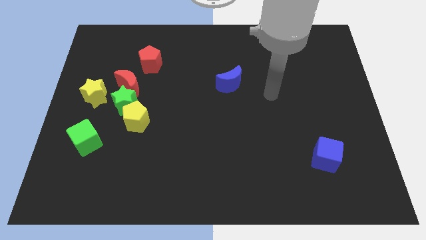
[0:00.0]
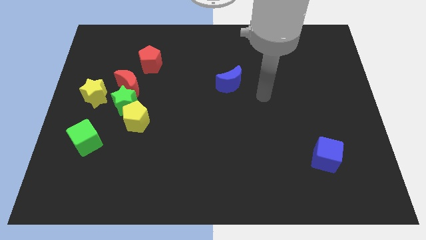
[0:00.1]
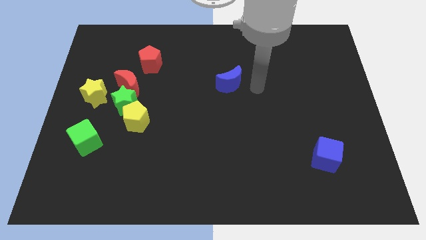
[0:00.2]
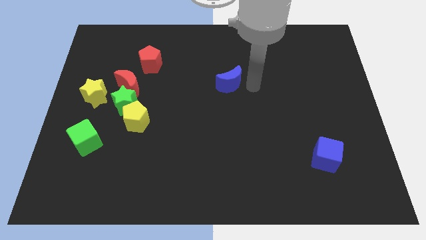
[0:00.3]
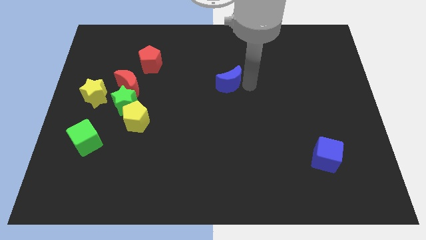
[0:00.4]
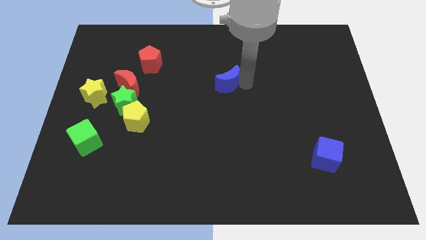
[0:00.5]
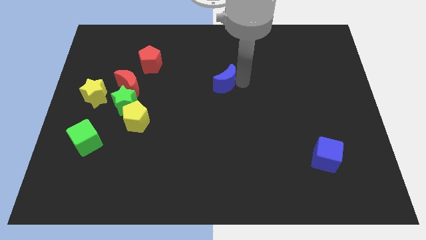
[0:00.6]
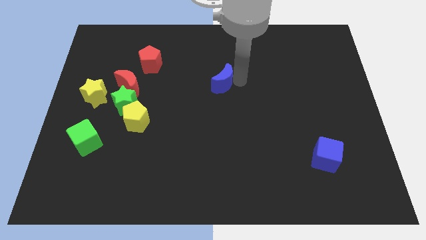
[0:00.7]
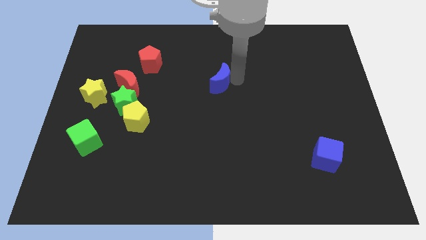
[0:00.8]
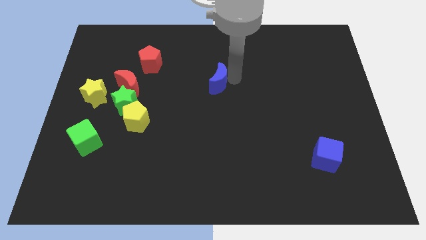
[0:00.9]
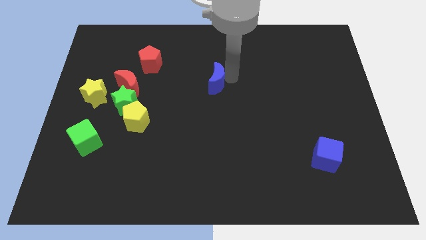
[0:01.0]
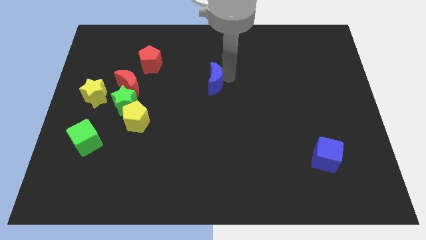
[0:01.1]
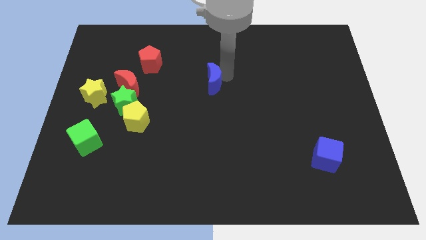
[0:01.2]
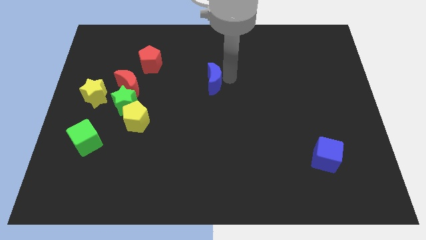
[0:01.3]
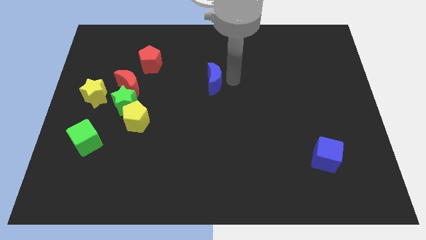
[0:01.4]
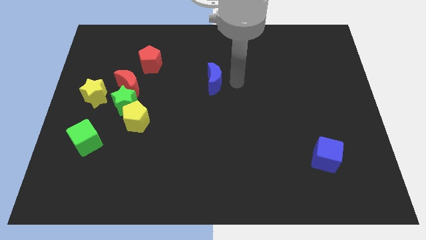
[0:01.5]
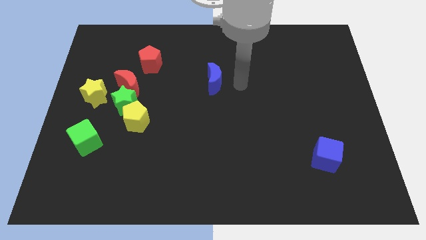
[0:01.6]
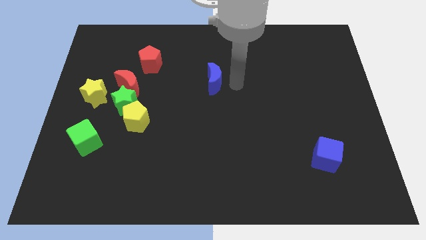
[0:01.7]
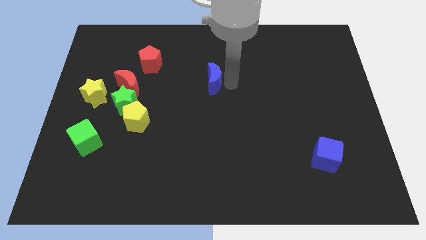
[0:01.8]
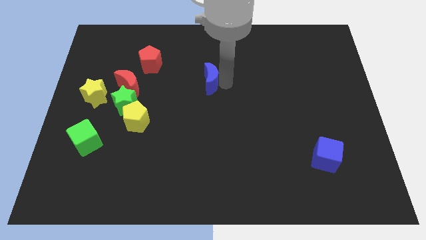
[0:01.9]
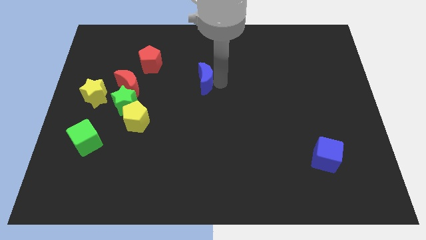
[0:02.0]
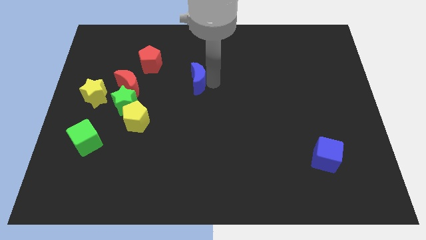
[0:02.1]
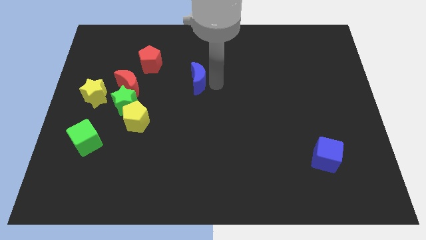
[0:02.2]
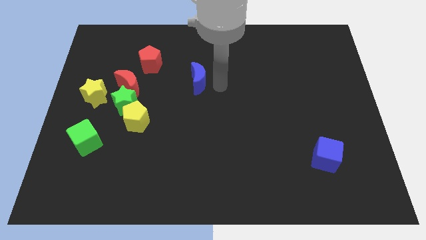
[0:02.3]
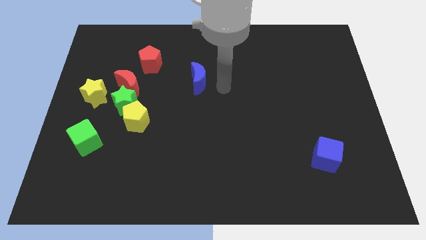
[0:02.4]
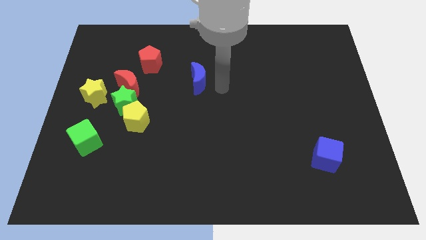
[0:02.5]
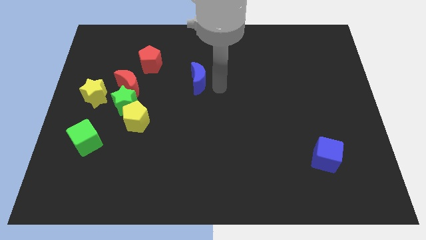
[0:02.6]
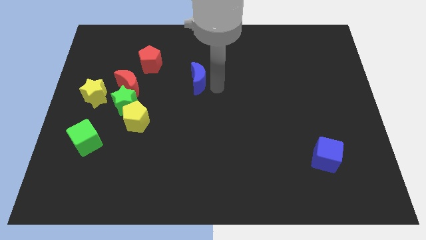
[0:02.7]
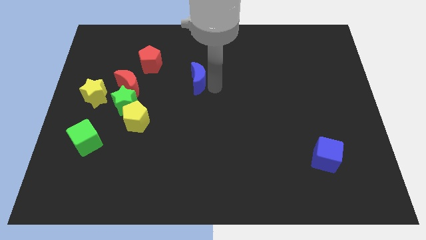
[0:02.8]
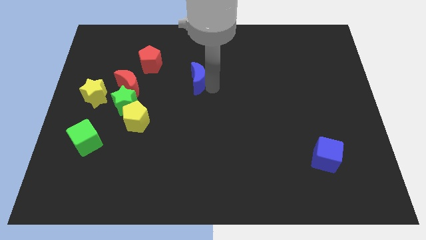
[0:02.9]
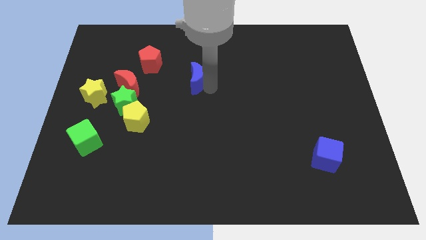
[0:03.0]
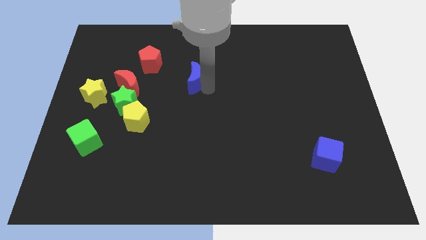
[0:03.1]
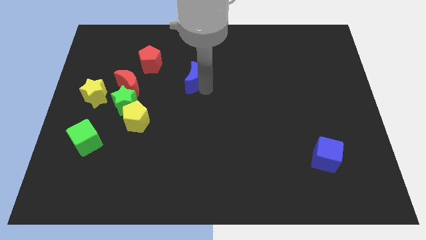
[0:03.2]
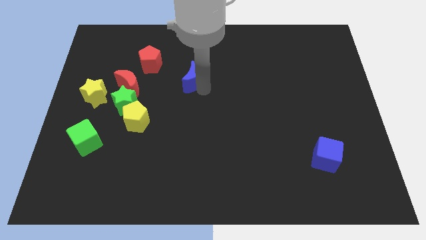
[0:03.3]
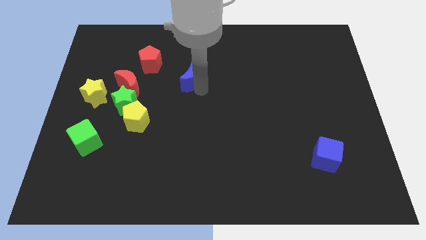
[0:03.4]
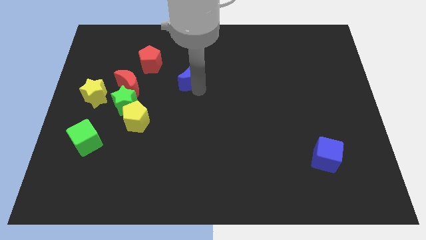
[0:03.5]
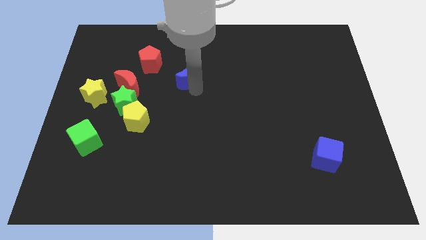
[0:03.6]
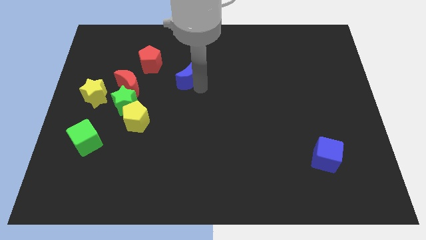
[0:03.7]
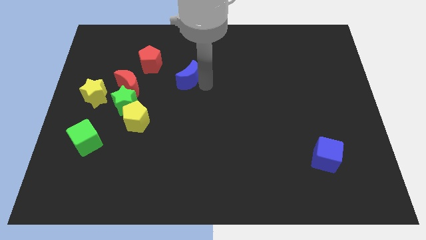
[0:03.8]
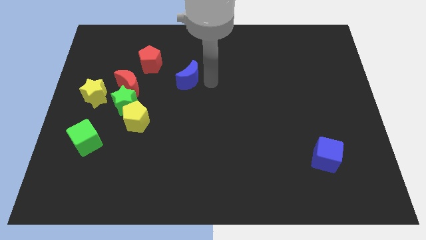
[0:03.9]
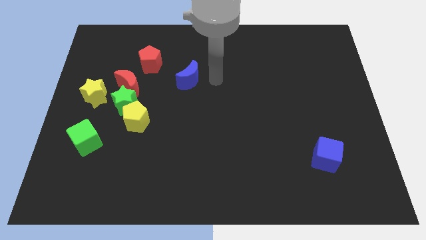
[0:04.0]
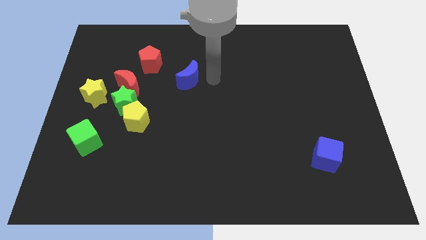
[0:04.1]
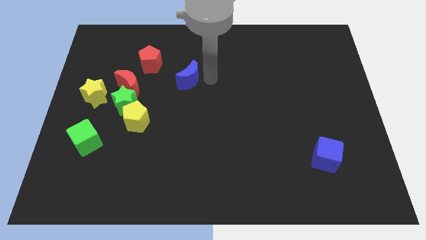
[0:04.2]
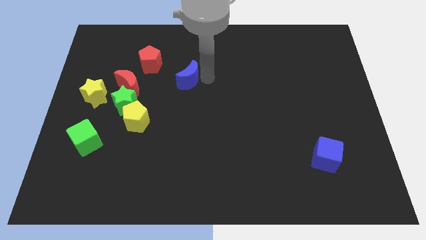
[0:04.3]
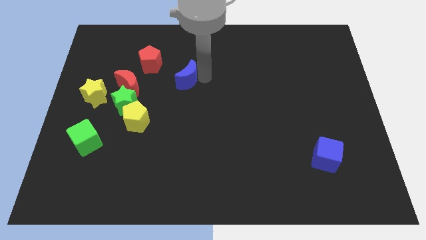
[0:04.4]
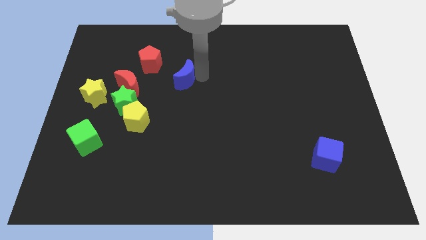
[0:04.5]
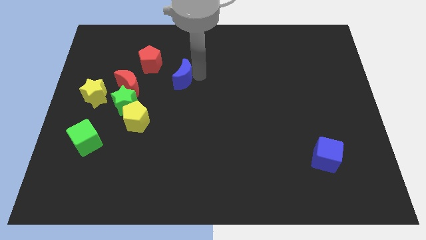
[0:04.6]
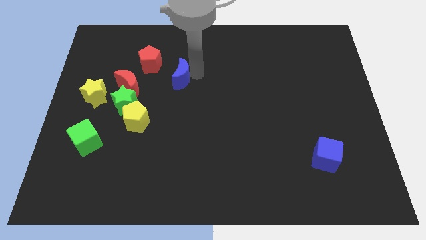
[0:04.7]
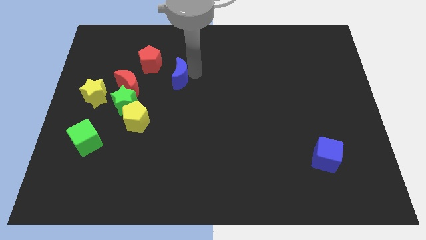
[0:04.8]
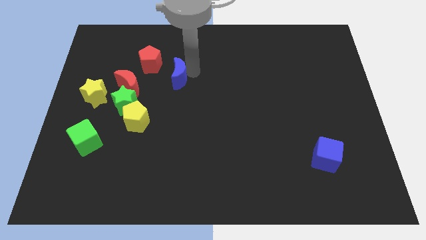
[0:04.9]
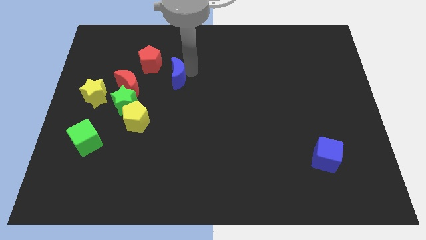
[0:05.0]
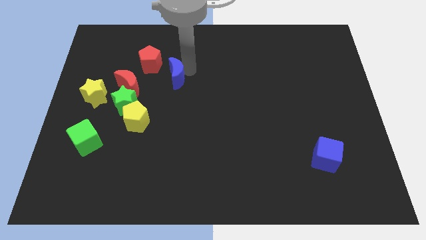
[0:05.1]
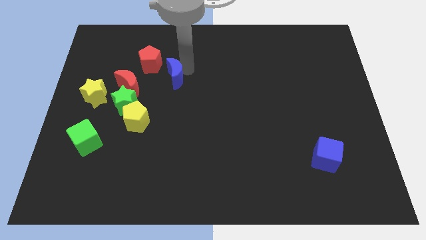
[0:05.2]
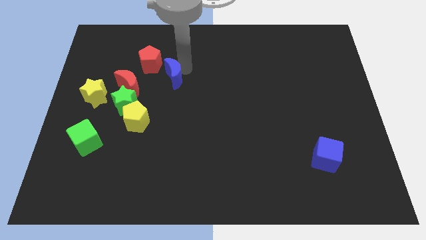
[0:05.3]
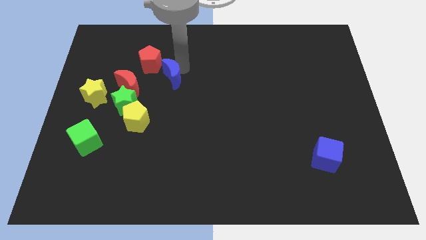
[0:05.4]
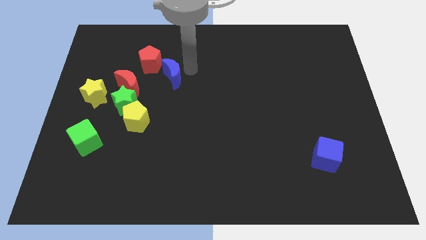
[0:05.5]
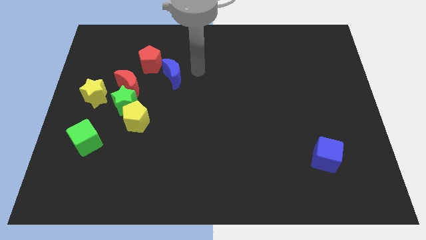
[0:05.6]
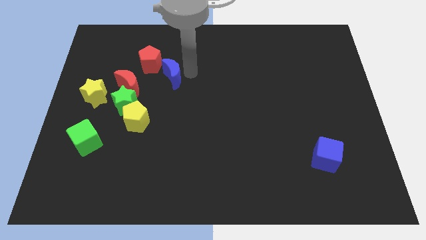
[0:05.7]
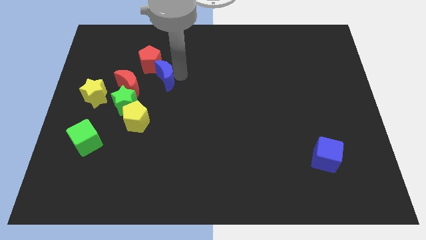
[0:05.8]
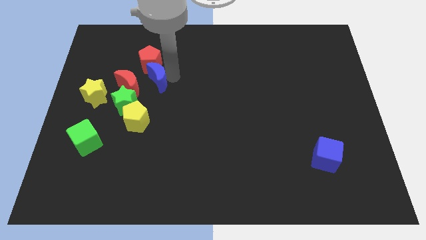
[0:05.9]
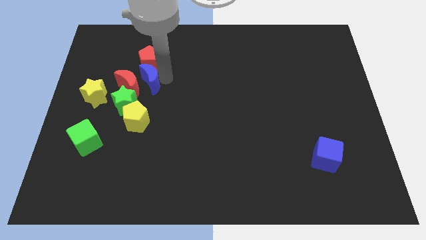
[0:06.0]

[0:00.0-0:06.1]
move the blue moon close to the red moon

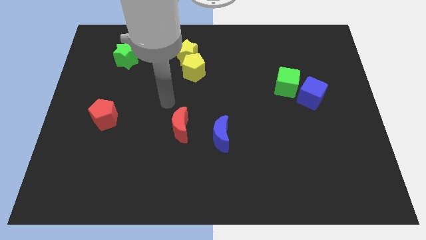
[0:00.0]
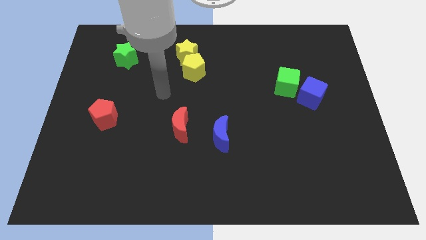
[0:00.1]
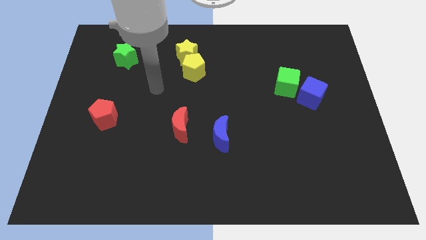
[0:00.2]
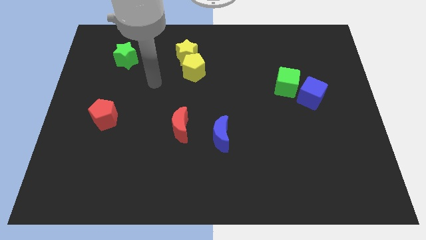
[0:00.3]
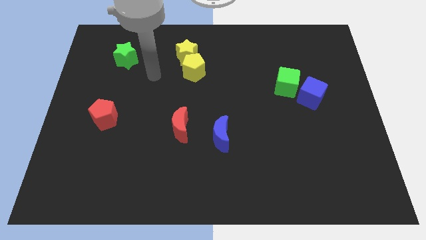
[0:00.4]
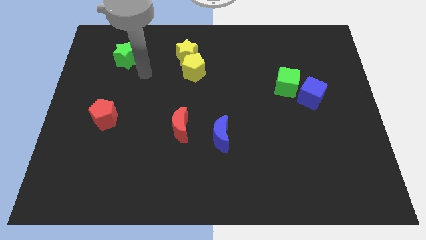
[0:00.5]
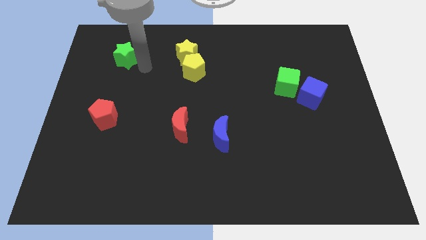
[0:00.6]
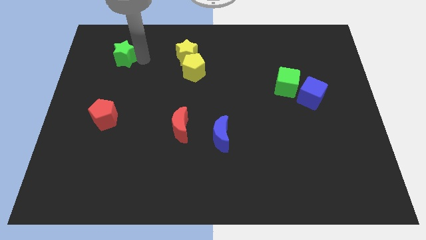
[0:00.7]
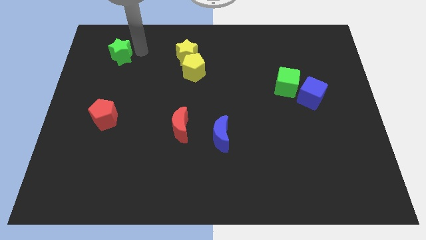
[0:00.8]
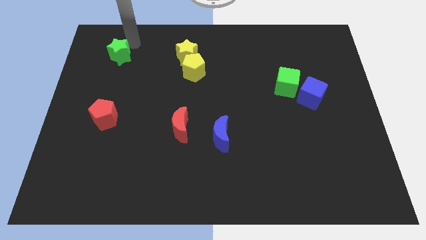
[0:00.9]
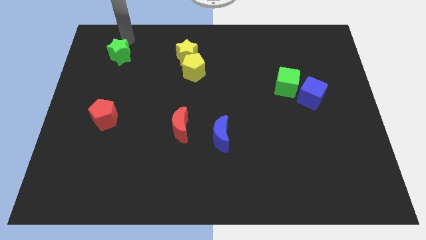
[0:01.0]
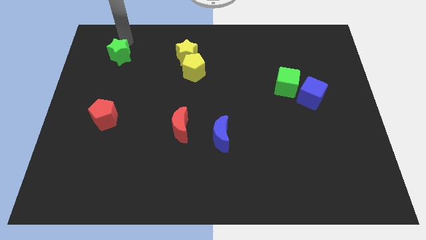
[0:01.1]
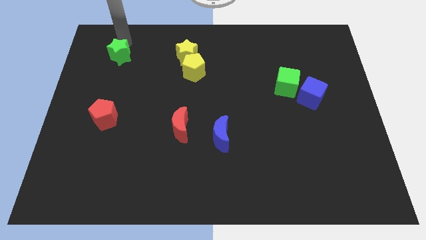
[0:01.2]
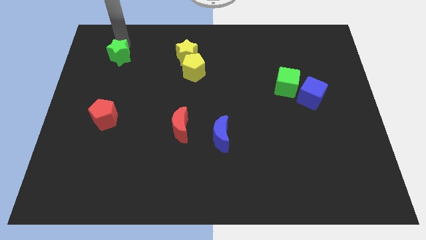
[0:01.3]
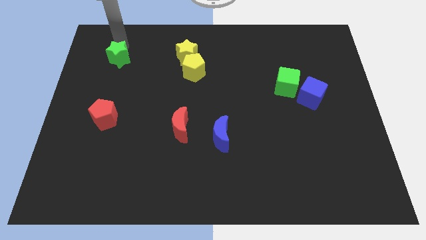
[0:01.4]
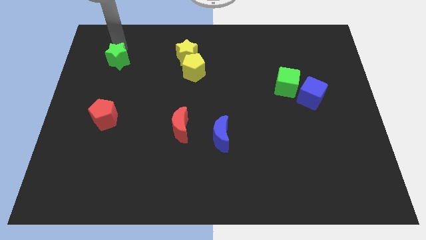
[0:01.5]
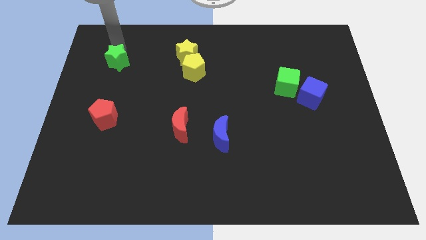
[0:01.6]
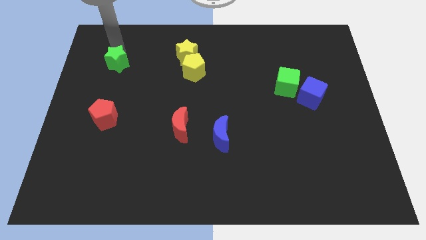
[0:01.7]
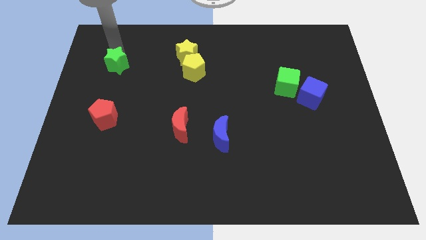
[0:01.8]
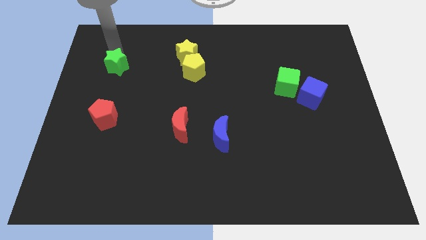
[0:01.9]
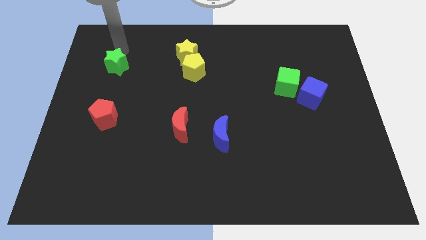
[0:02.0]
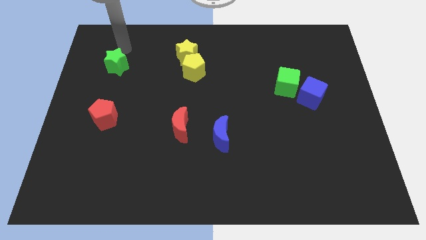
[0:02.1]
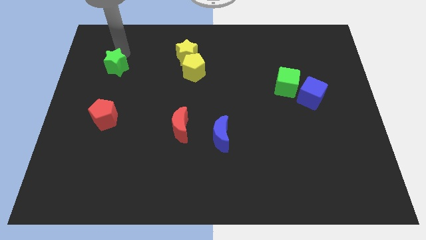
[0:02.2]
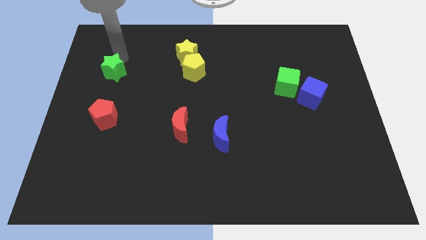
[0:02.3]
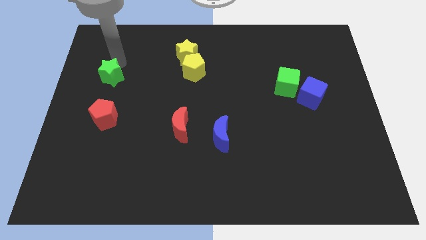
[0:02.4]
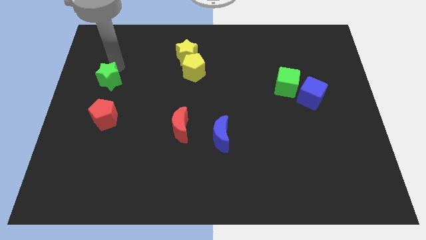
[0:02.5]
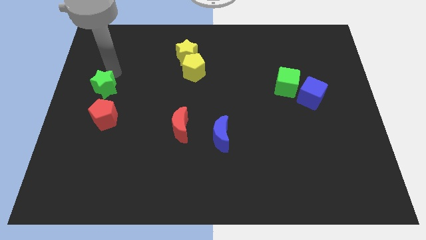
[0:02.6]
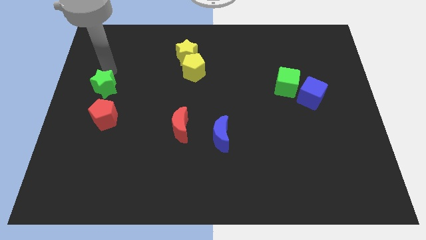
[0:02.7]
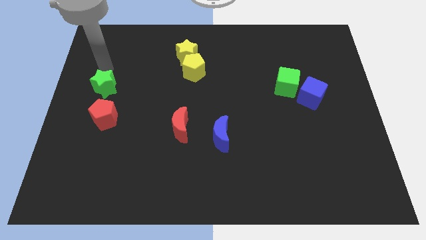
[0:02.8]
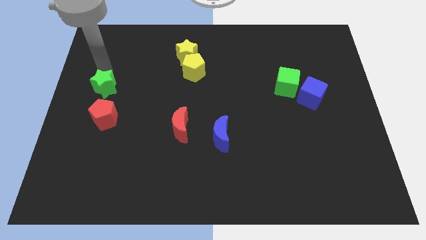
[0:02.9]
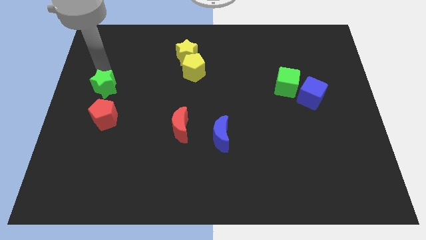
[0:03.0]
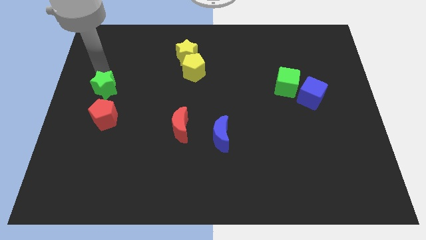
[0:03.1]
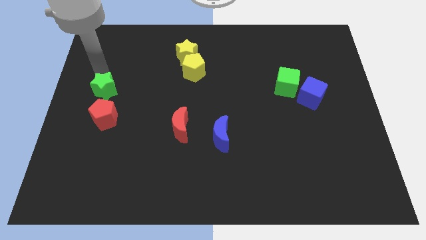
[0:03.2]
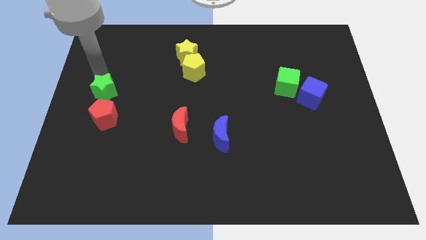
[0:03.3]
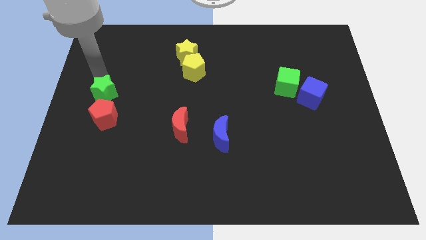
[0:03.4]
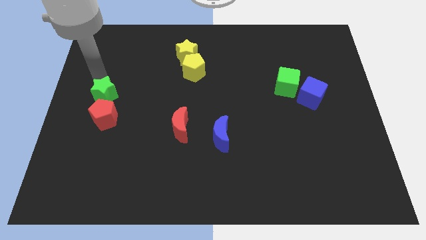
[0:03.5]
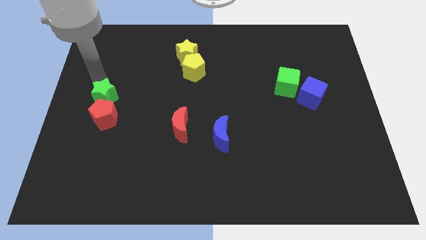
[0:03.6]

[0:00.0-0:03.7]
push the green star next to the red pentagon
